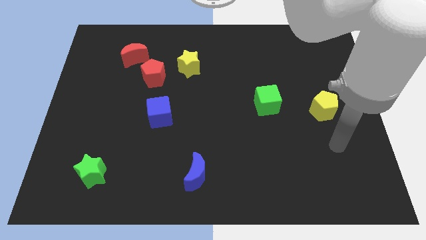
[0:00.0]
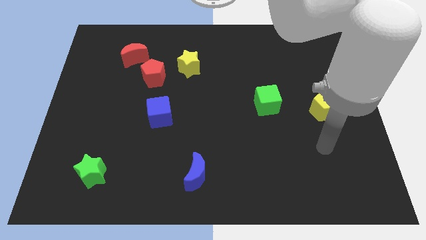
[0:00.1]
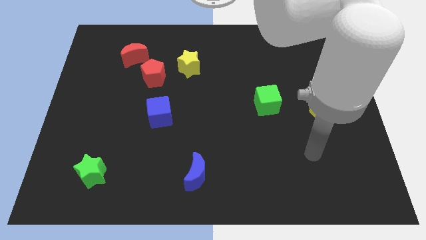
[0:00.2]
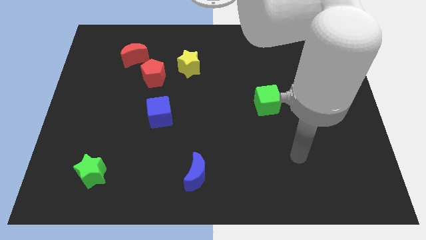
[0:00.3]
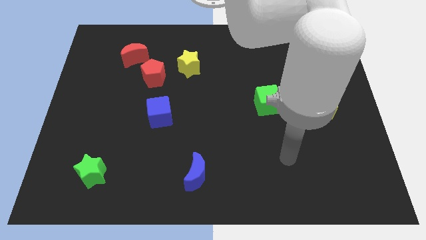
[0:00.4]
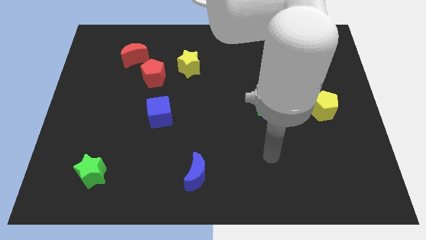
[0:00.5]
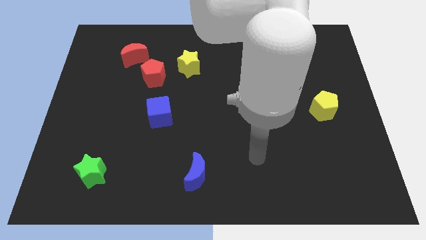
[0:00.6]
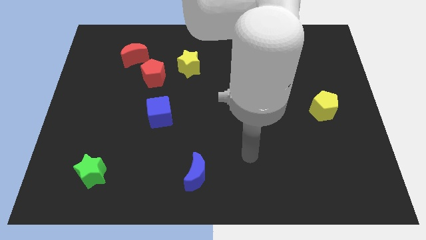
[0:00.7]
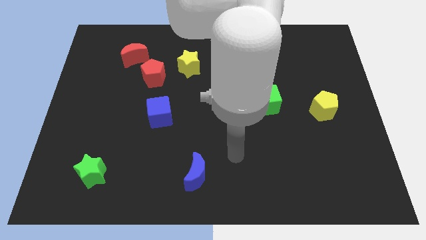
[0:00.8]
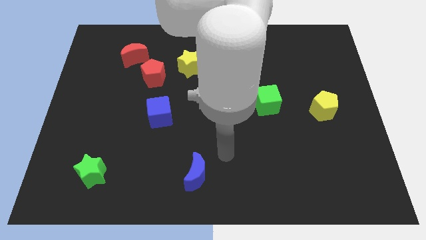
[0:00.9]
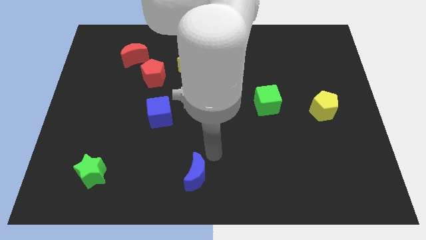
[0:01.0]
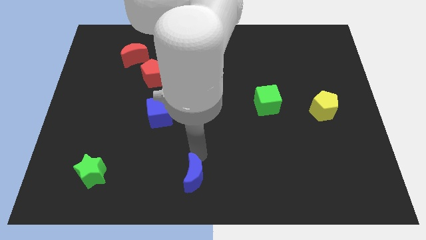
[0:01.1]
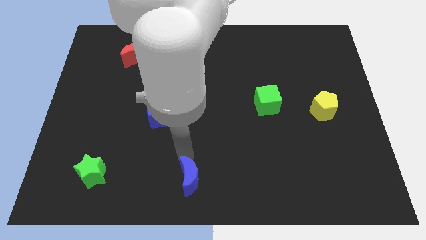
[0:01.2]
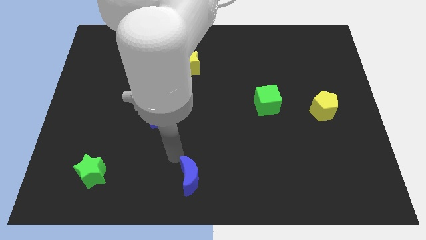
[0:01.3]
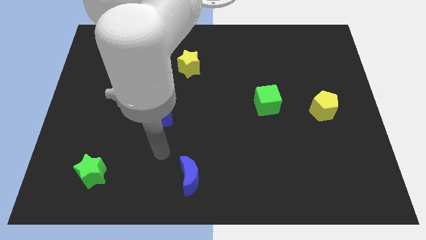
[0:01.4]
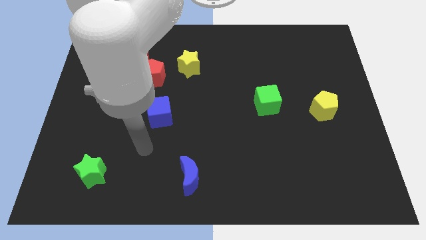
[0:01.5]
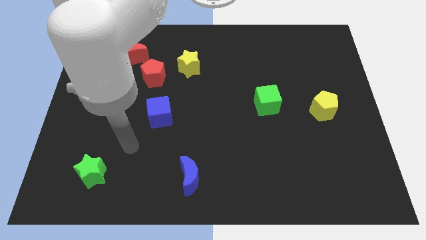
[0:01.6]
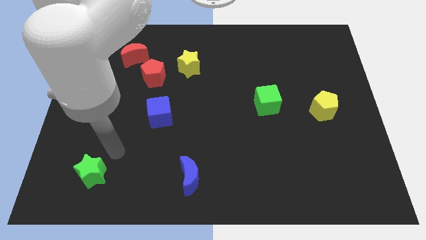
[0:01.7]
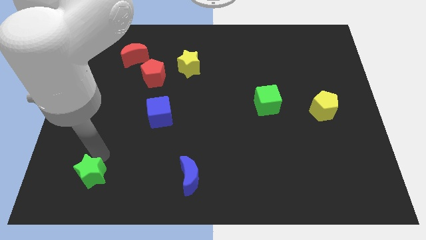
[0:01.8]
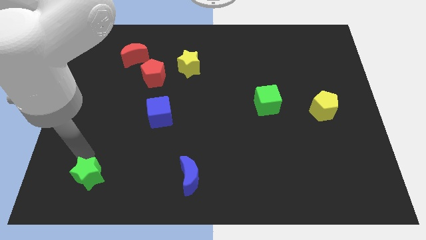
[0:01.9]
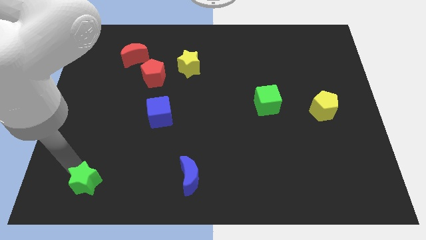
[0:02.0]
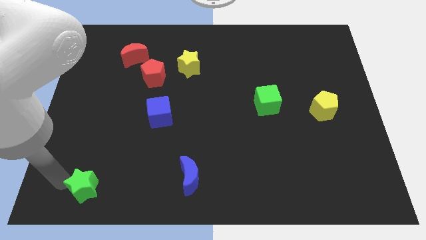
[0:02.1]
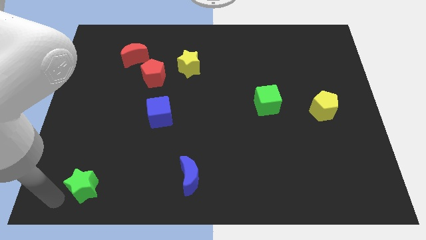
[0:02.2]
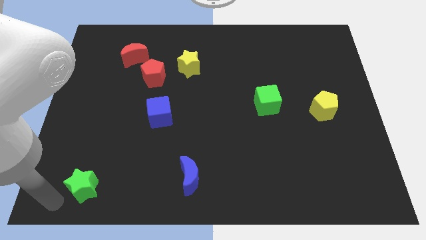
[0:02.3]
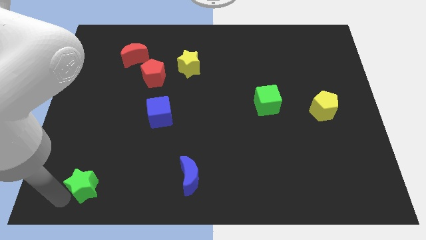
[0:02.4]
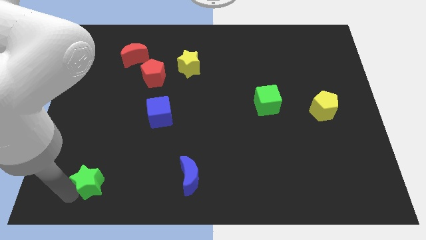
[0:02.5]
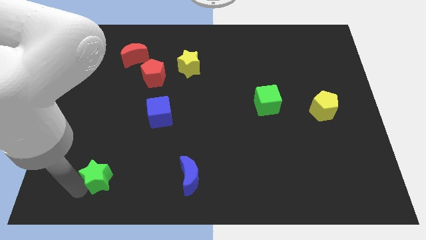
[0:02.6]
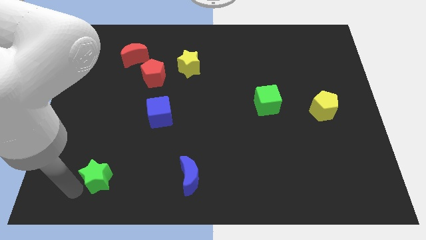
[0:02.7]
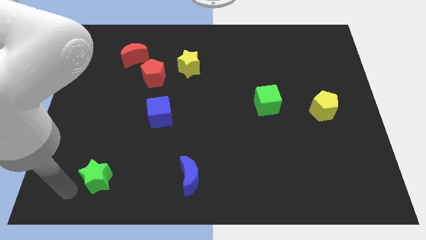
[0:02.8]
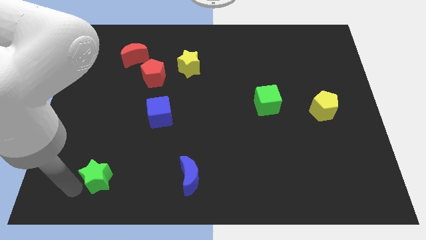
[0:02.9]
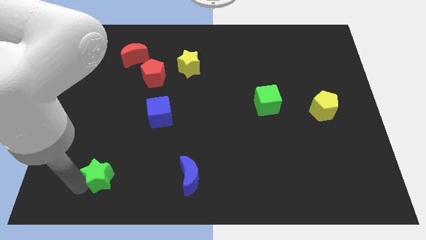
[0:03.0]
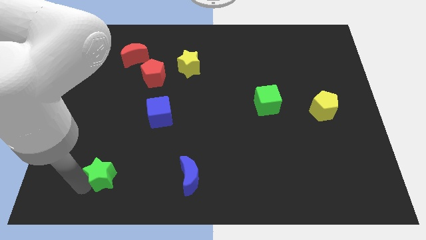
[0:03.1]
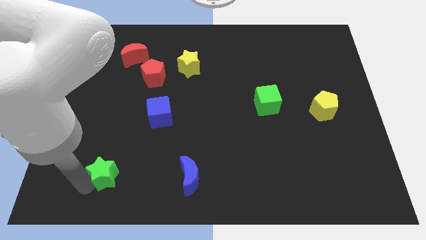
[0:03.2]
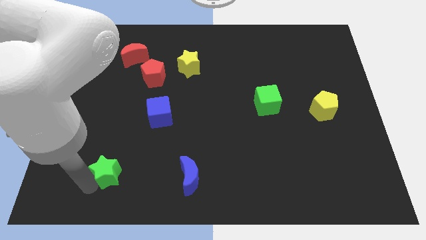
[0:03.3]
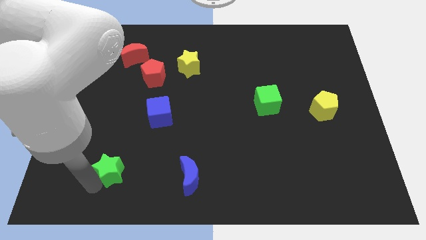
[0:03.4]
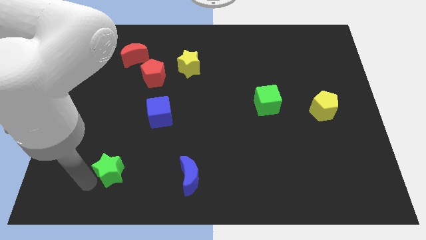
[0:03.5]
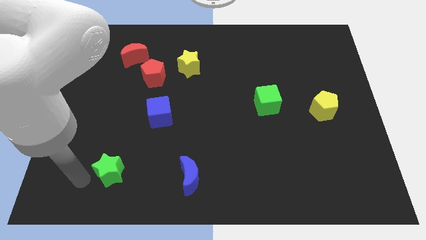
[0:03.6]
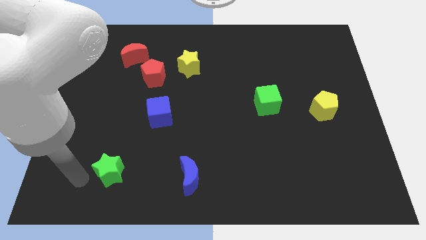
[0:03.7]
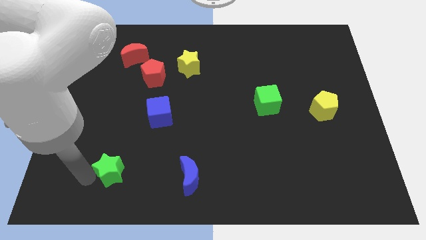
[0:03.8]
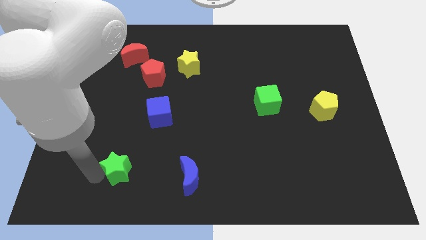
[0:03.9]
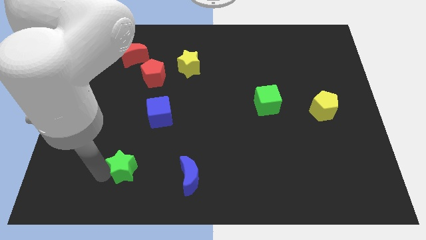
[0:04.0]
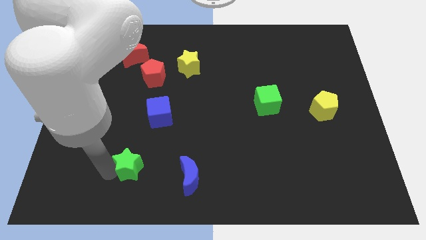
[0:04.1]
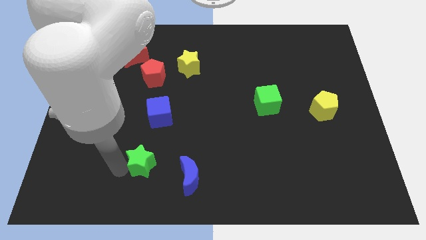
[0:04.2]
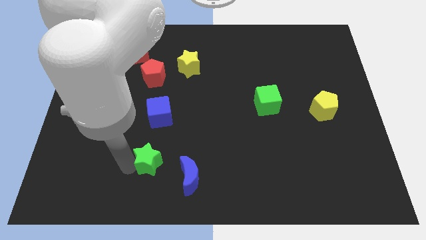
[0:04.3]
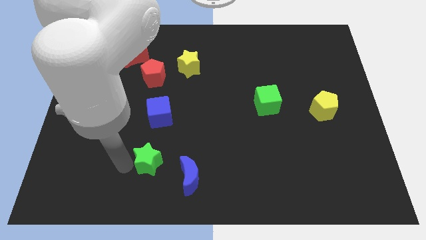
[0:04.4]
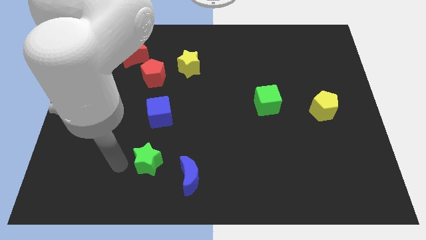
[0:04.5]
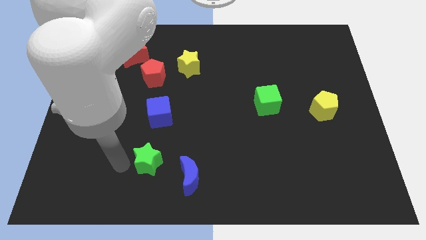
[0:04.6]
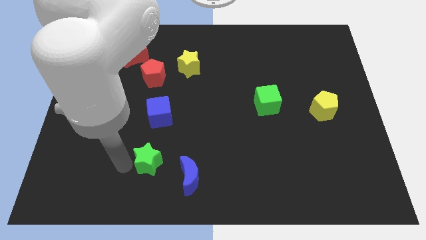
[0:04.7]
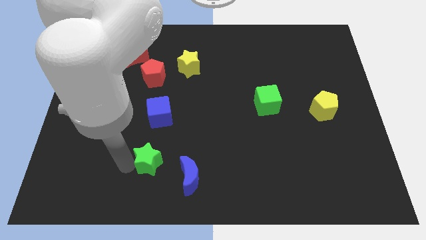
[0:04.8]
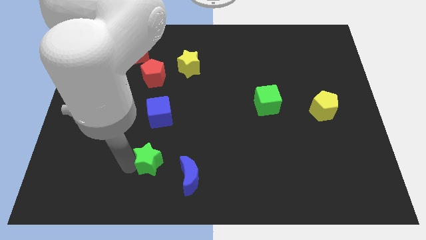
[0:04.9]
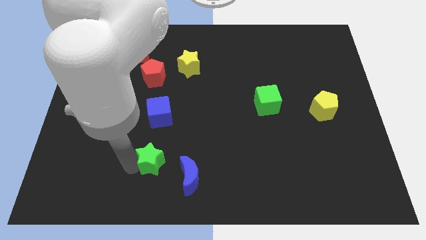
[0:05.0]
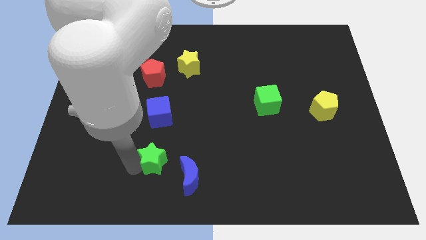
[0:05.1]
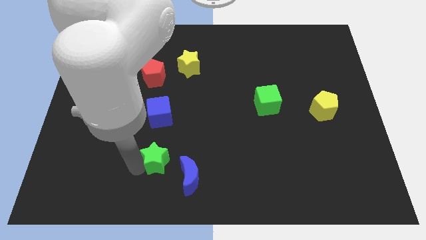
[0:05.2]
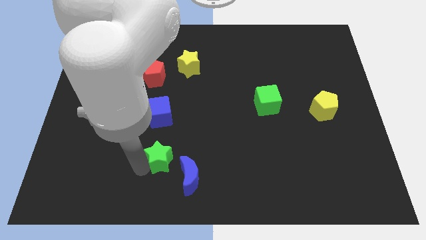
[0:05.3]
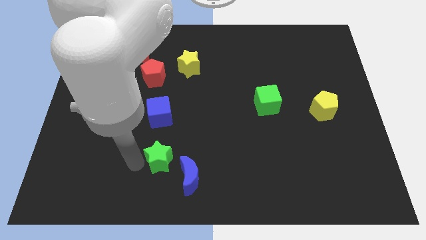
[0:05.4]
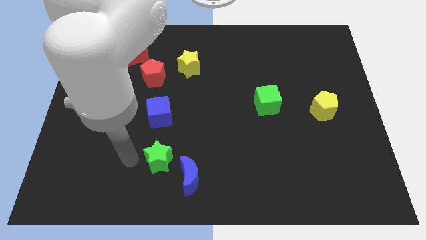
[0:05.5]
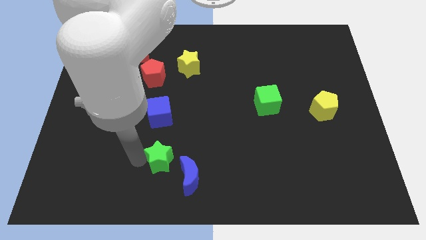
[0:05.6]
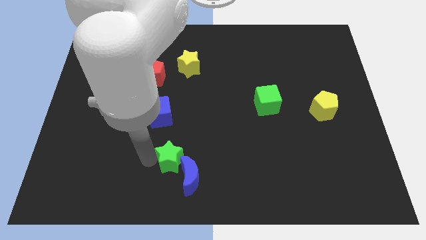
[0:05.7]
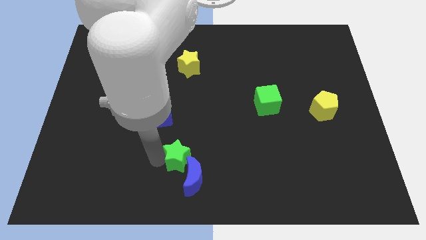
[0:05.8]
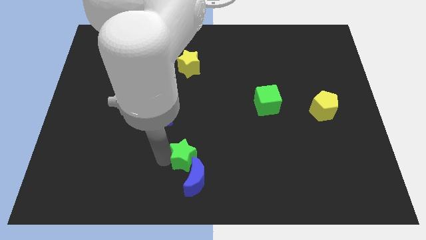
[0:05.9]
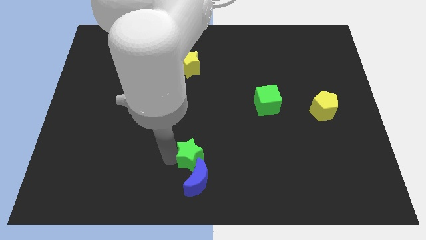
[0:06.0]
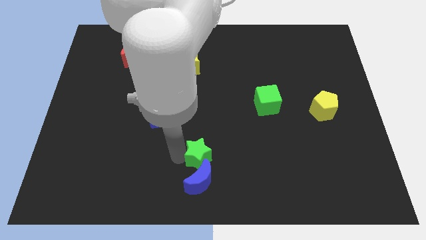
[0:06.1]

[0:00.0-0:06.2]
push the green star to the right

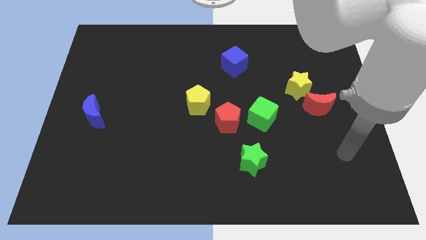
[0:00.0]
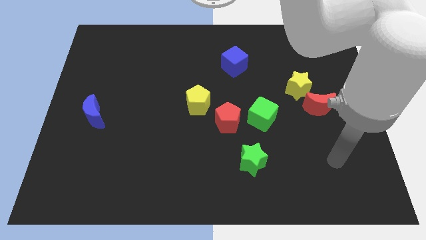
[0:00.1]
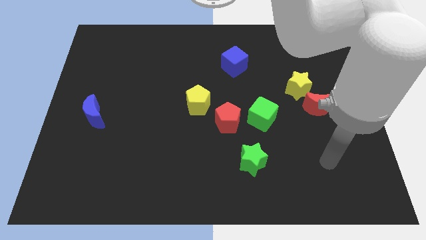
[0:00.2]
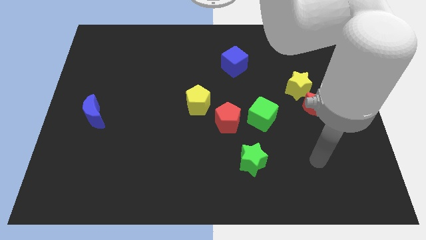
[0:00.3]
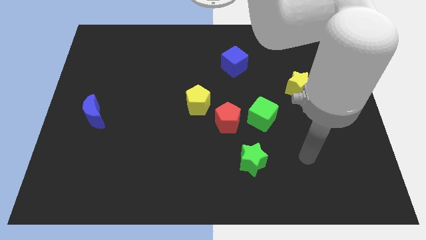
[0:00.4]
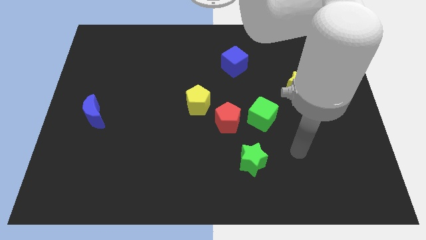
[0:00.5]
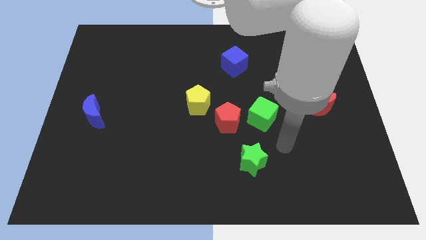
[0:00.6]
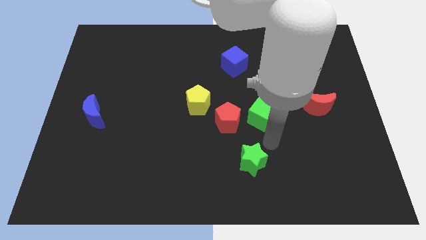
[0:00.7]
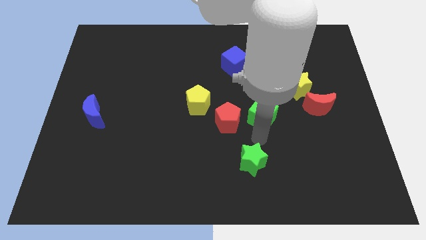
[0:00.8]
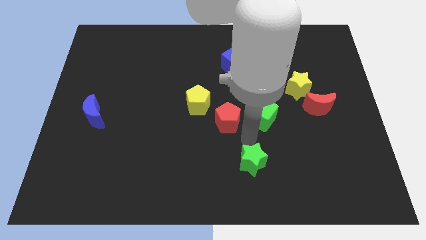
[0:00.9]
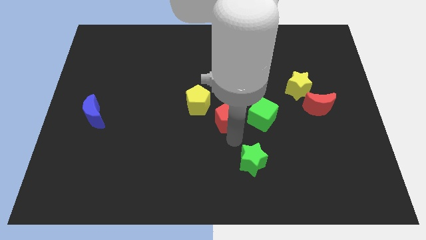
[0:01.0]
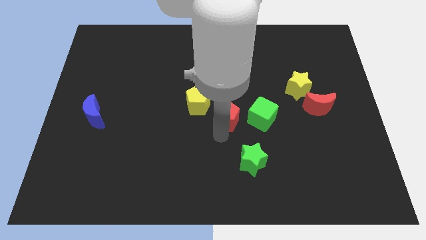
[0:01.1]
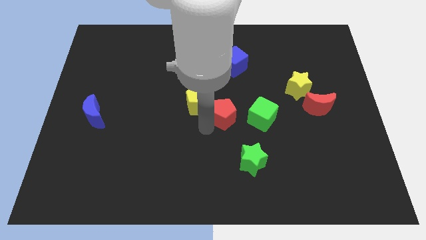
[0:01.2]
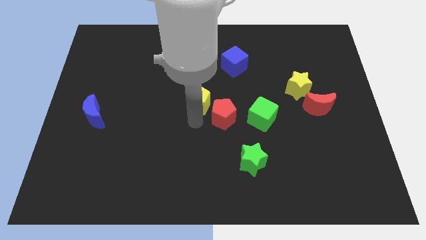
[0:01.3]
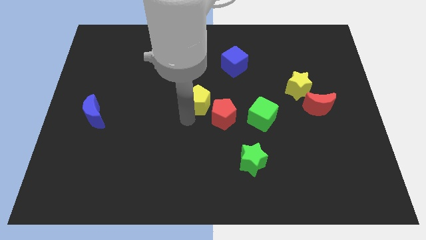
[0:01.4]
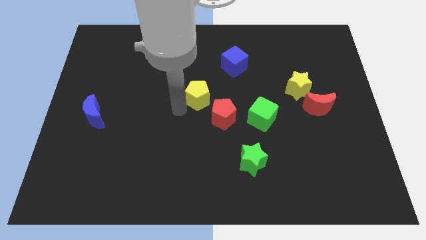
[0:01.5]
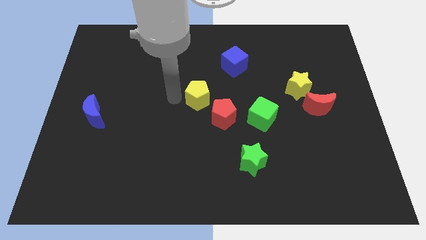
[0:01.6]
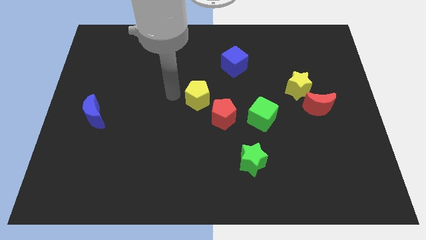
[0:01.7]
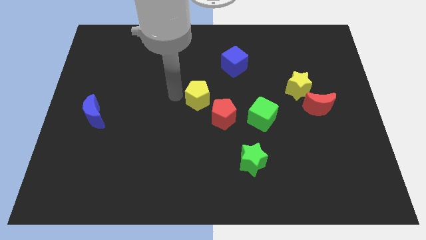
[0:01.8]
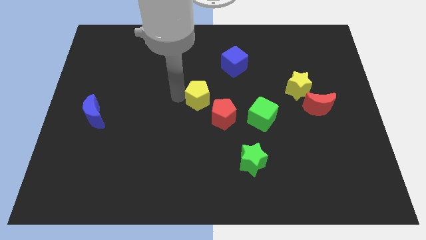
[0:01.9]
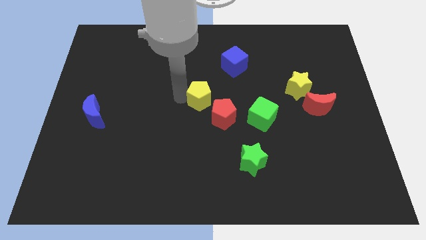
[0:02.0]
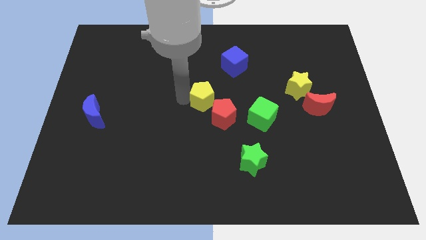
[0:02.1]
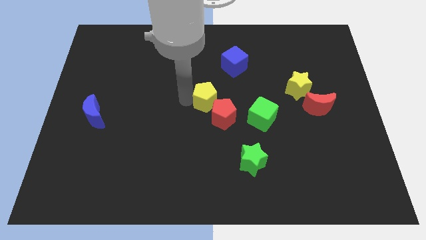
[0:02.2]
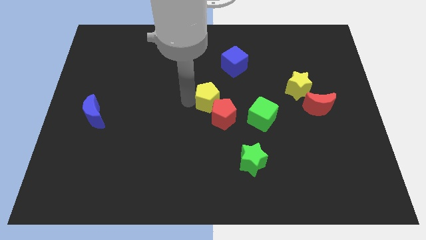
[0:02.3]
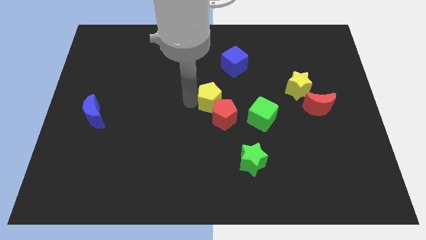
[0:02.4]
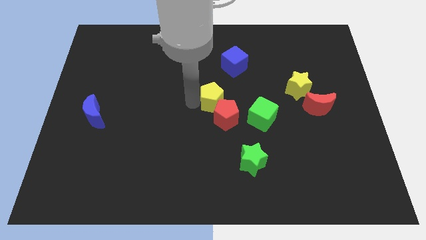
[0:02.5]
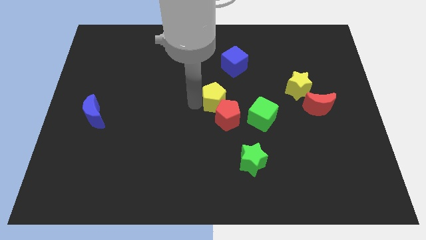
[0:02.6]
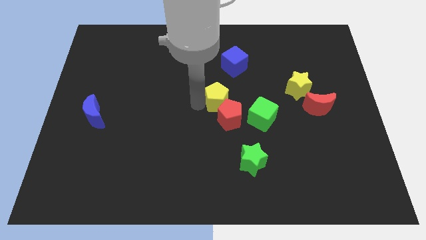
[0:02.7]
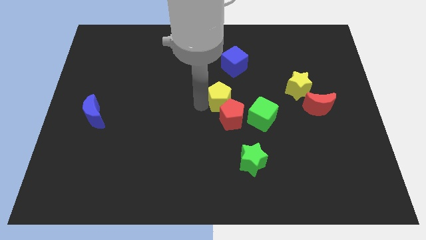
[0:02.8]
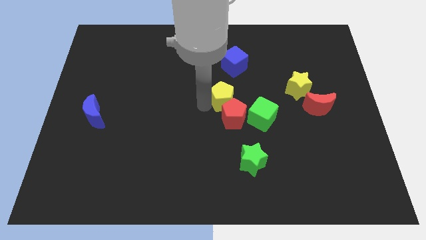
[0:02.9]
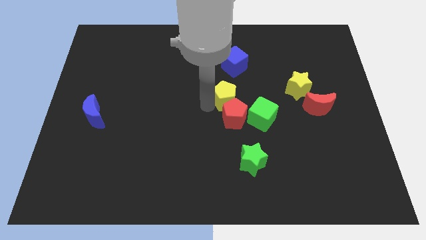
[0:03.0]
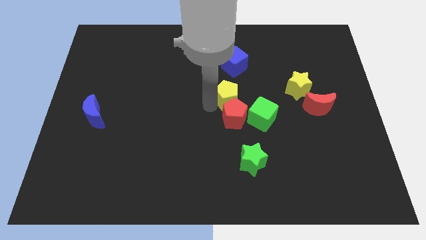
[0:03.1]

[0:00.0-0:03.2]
slightly push the yellow pentagon to the right
